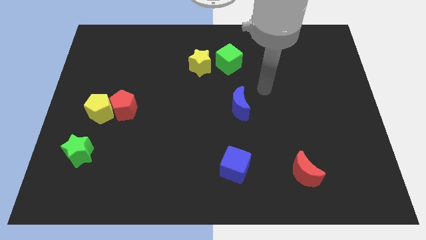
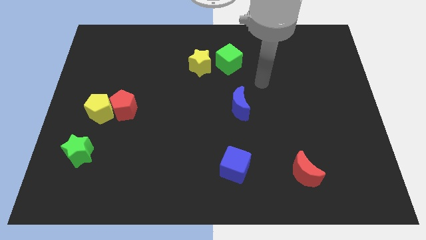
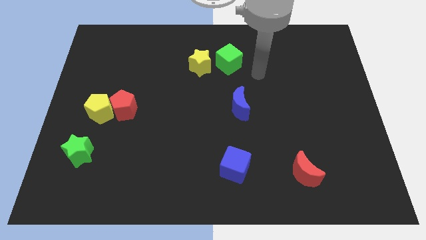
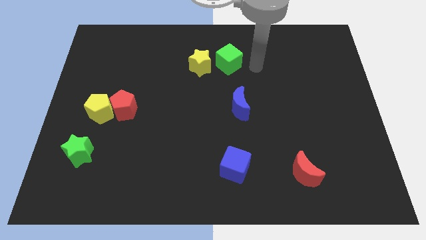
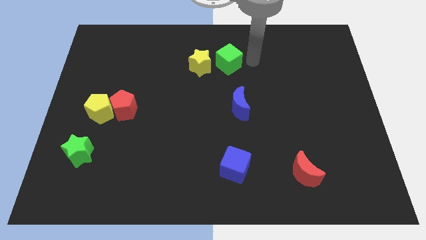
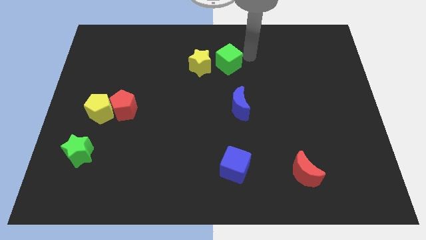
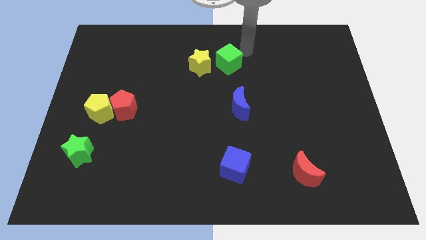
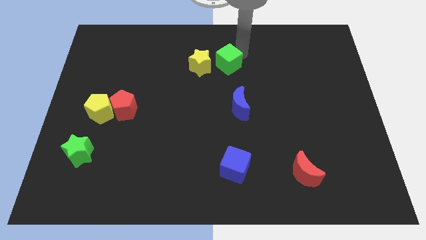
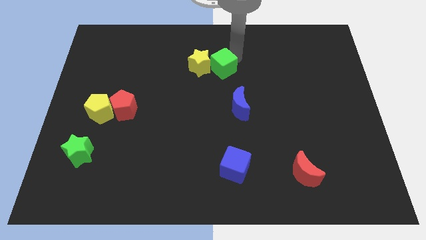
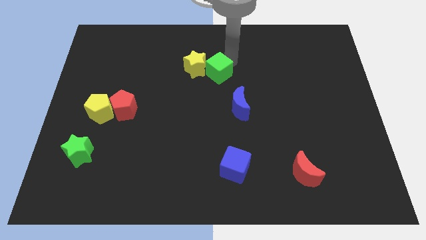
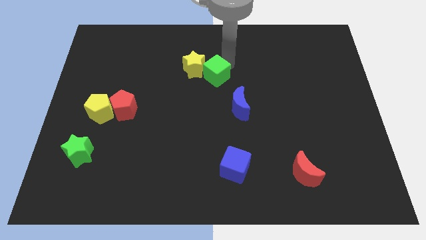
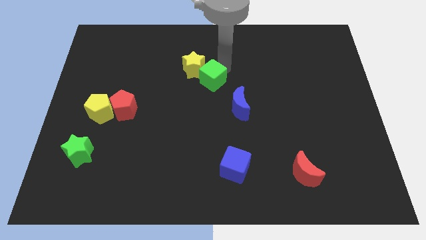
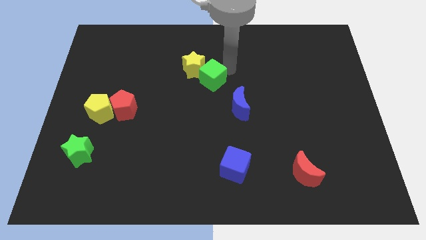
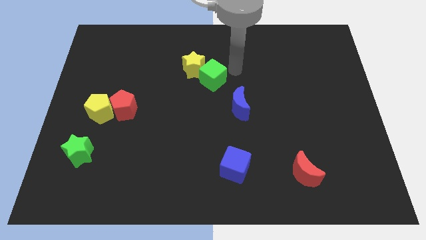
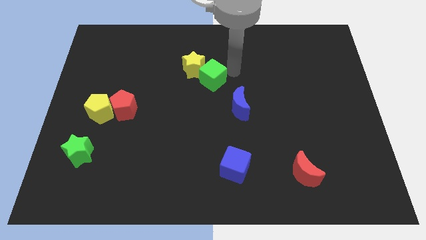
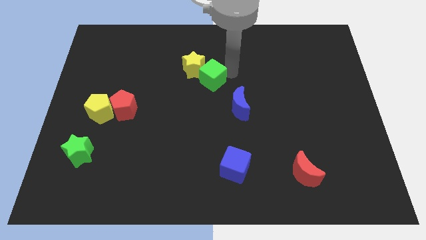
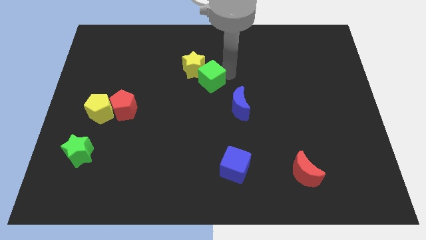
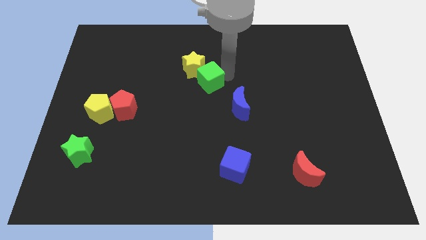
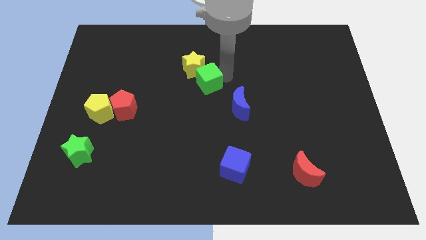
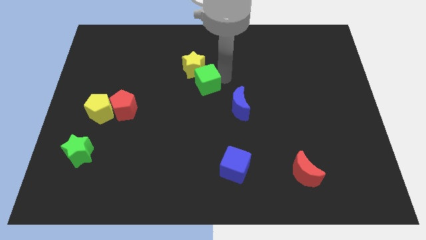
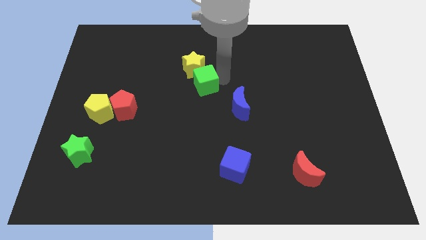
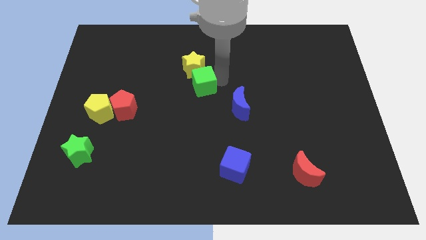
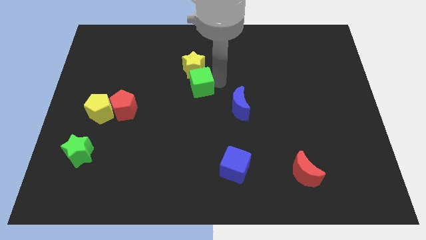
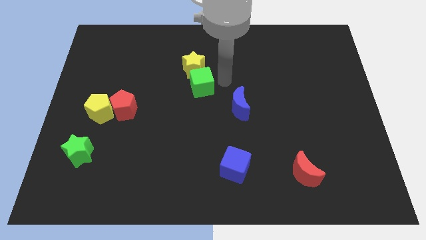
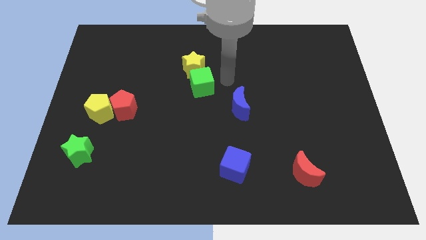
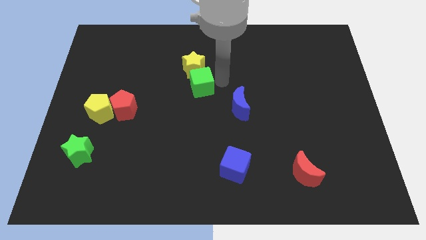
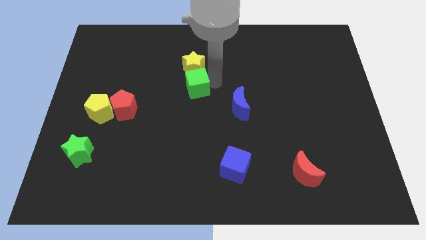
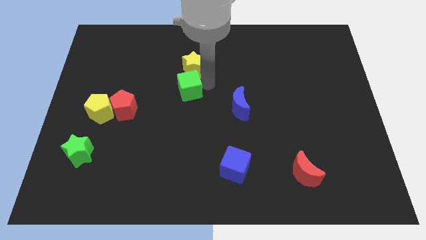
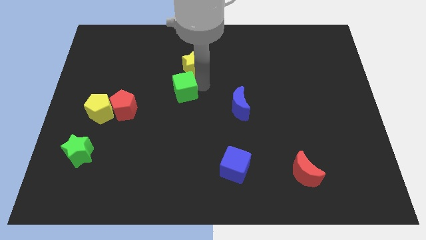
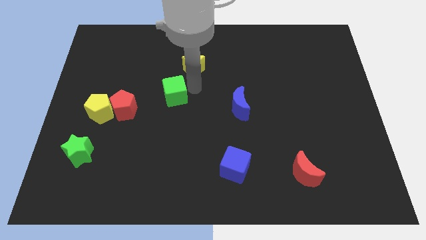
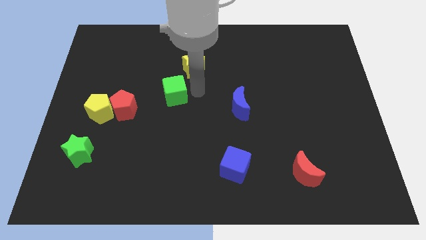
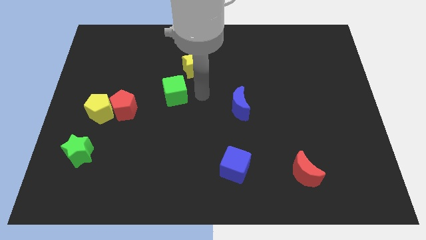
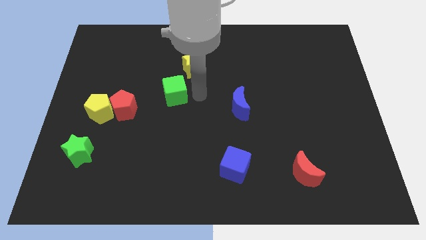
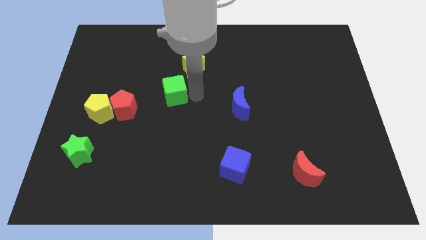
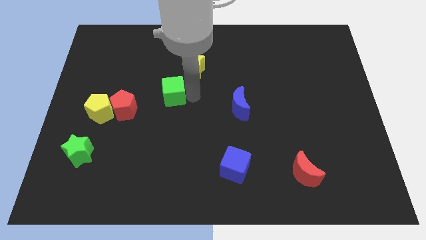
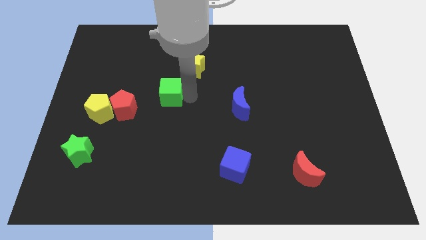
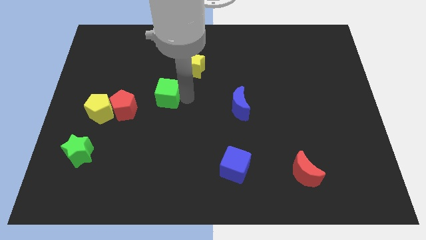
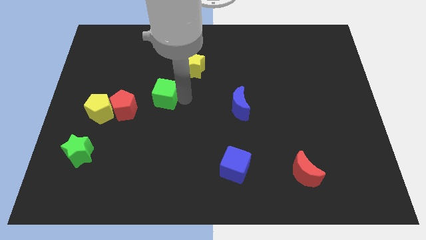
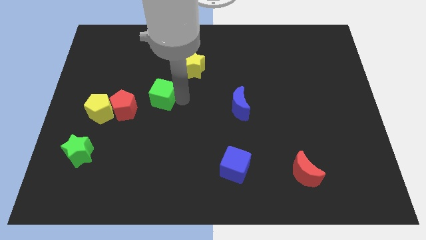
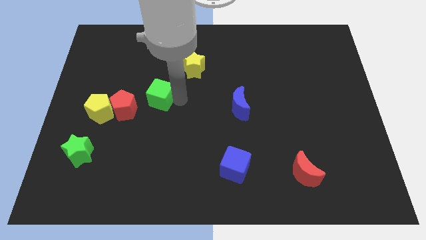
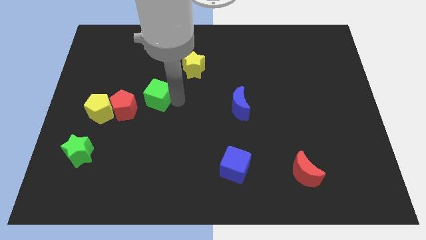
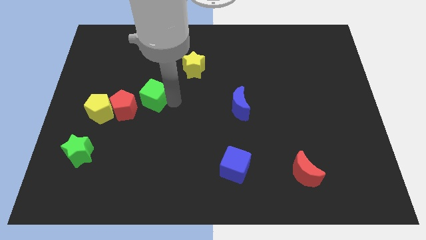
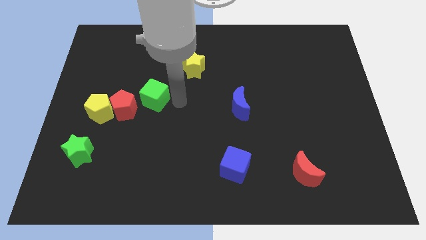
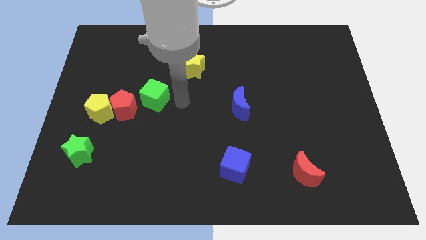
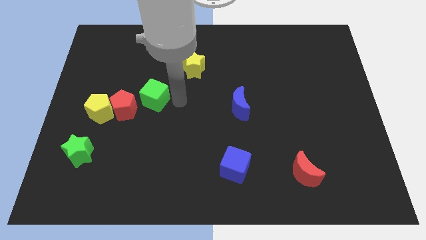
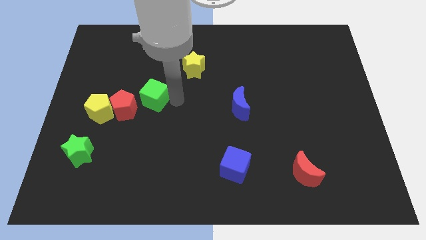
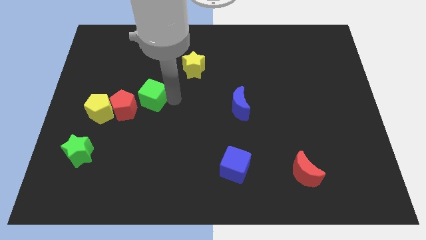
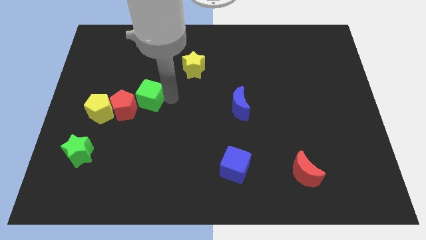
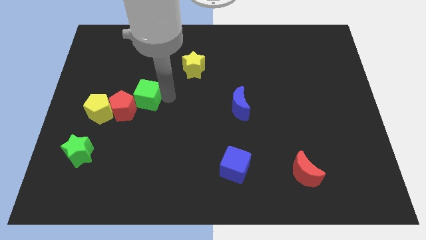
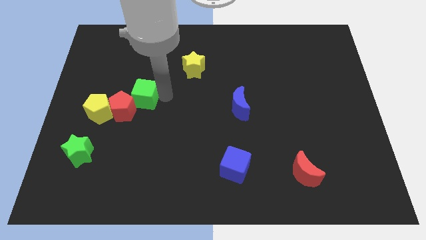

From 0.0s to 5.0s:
put the green cube to the top right of the yellow pentagon

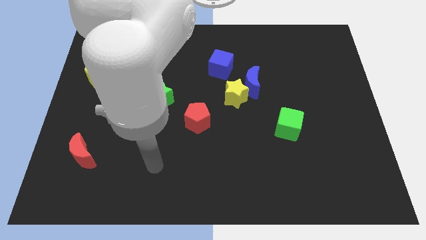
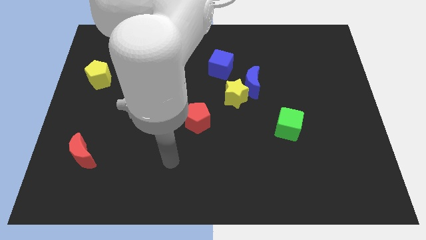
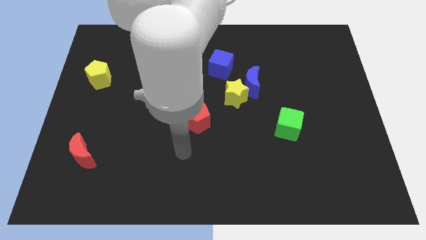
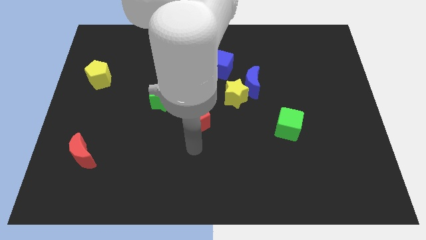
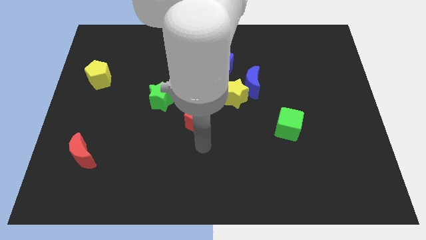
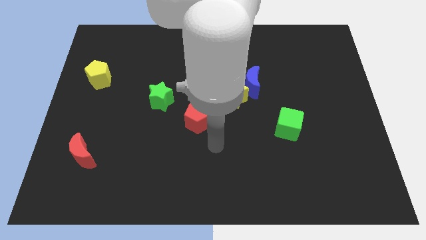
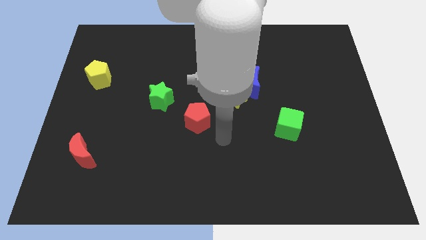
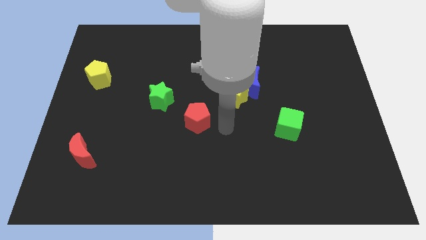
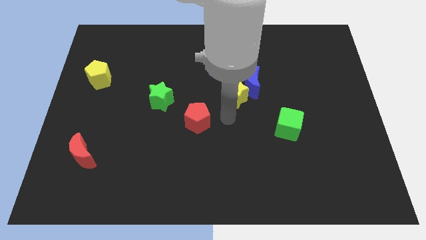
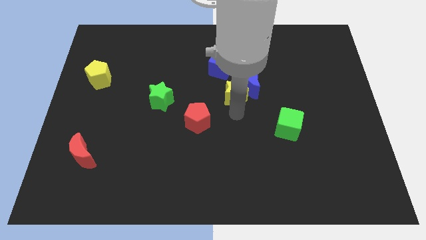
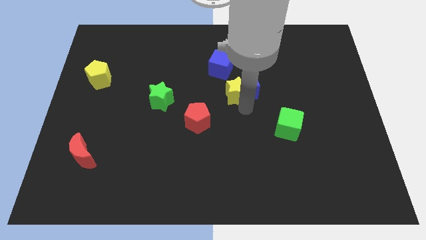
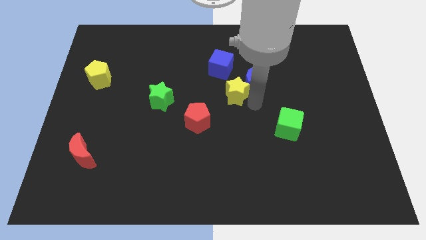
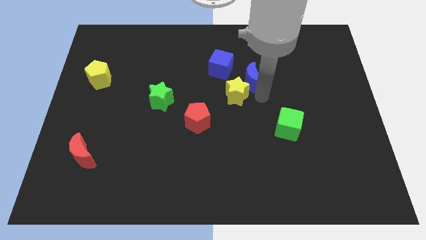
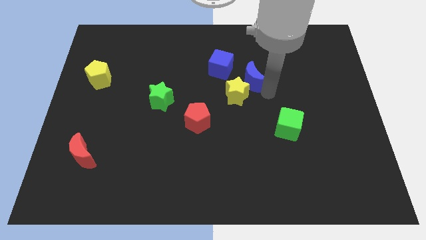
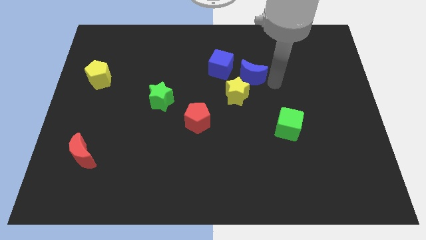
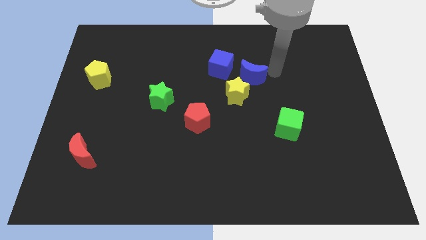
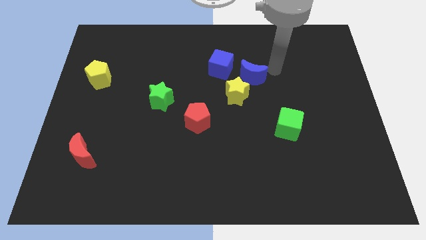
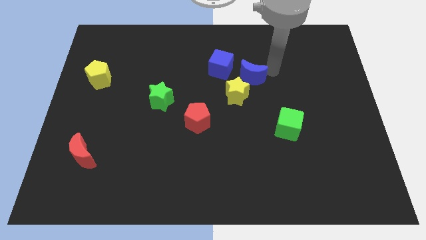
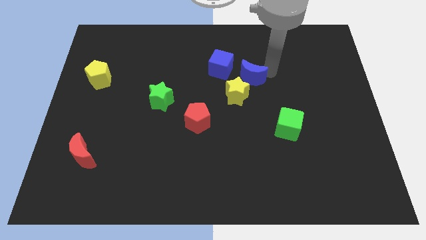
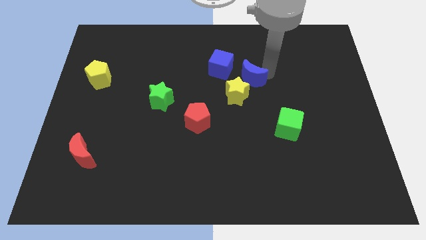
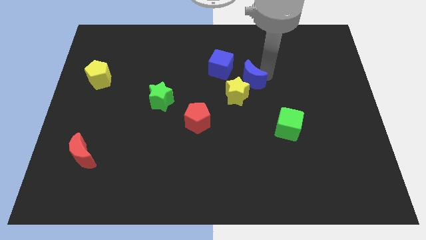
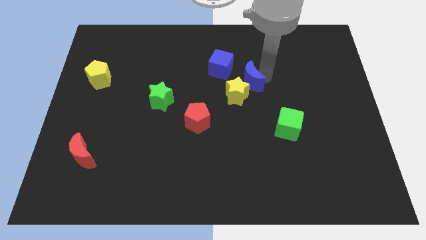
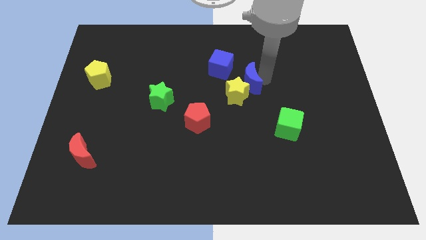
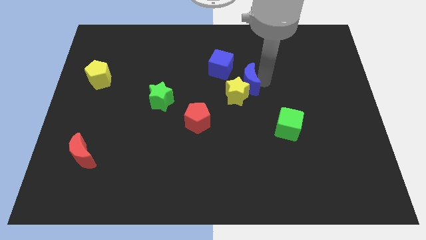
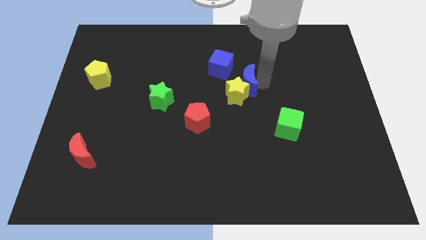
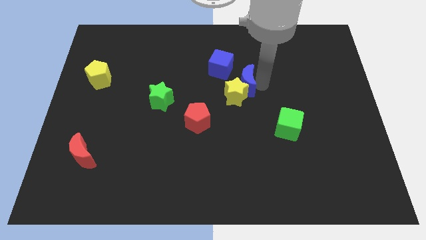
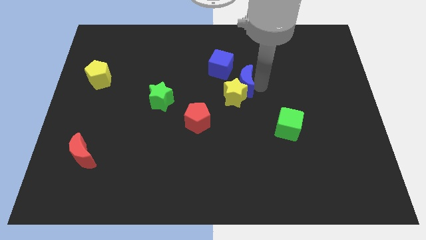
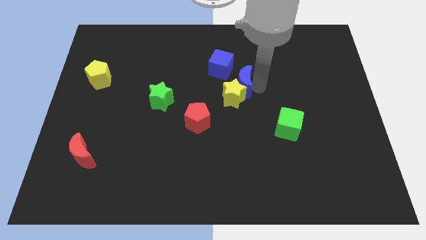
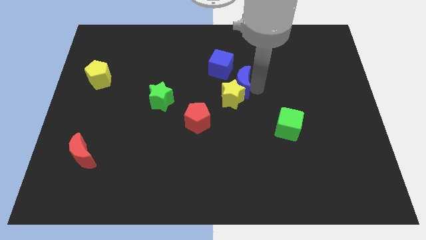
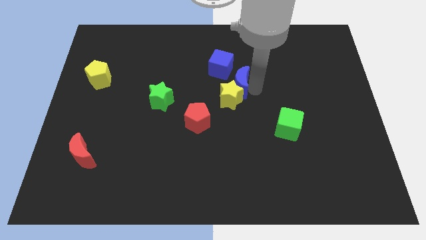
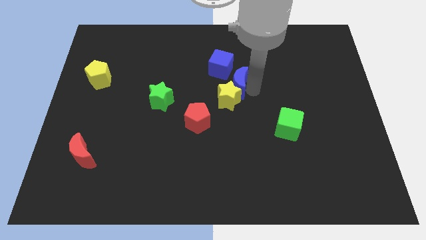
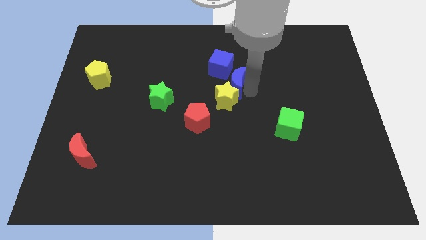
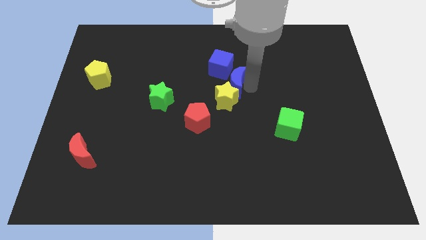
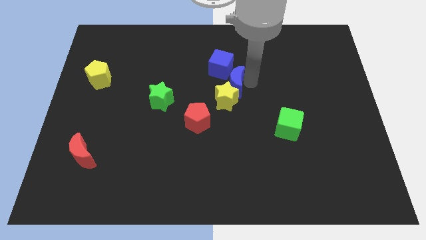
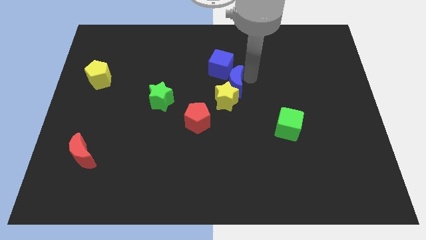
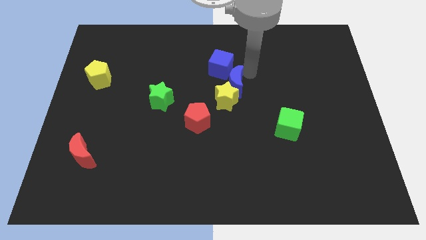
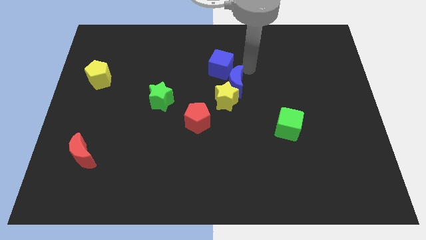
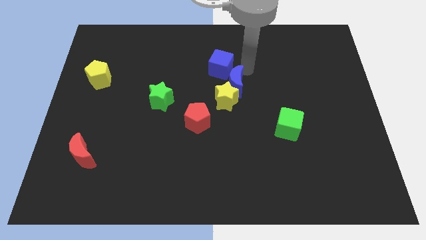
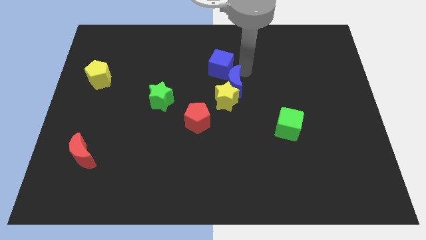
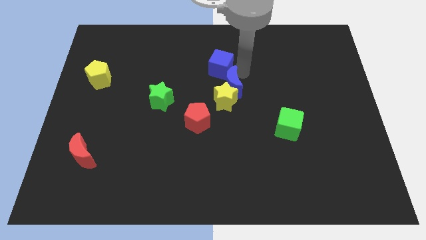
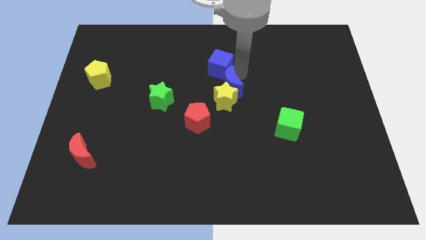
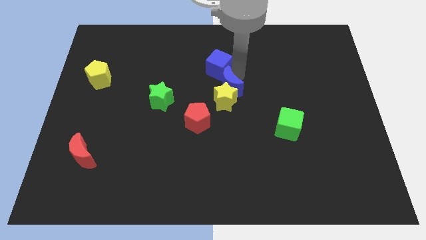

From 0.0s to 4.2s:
put the blue moon to the top right of the red pentagon
